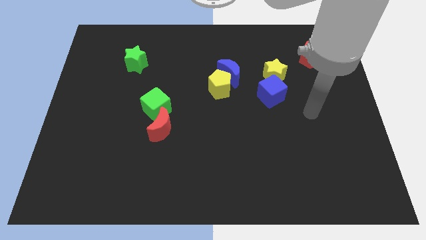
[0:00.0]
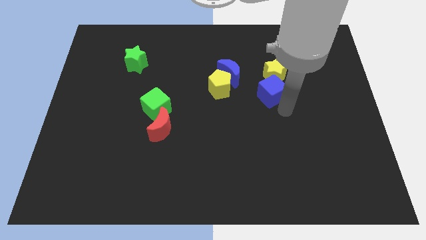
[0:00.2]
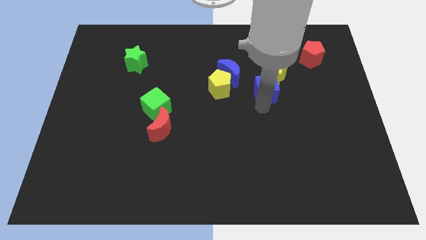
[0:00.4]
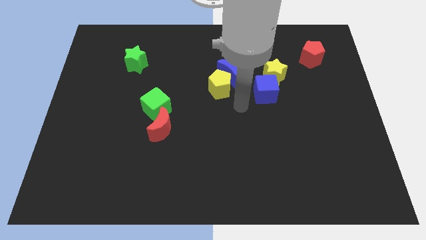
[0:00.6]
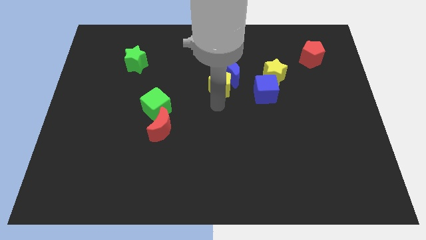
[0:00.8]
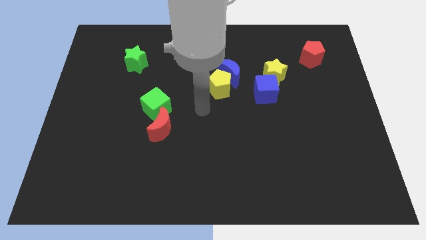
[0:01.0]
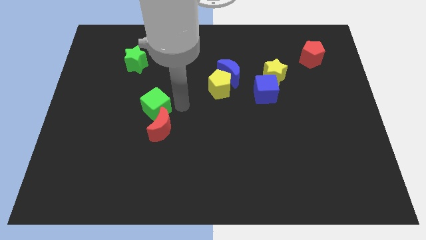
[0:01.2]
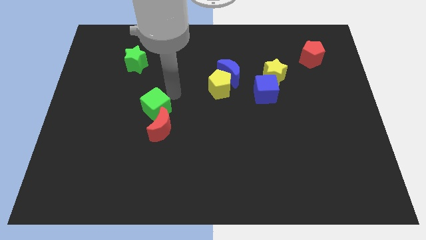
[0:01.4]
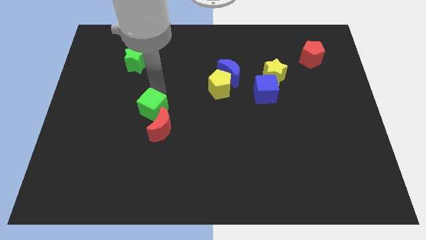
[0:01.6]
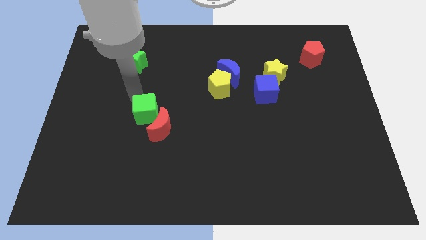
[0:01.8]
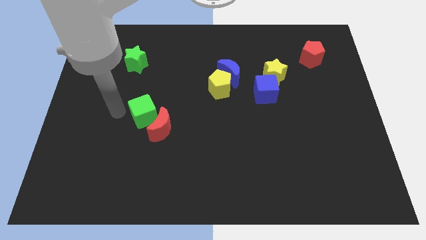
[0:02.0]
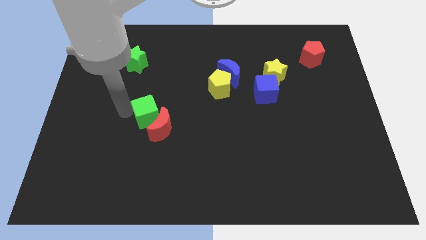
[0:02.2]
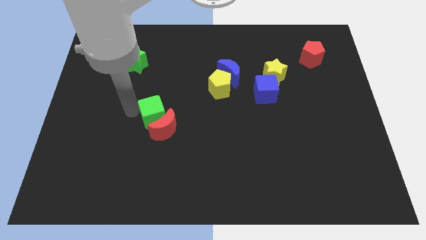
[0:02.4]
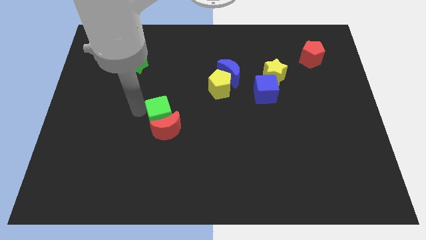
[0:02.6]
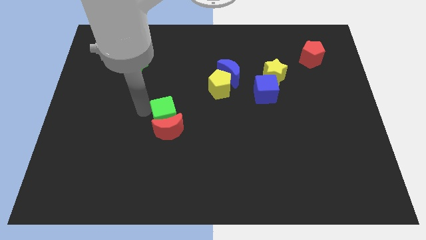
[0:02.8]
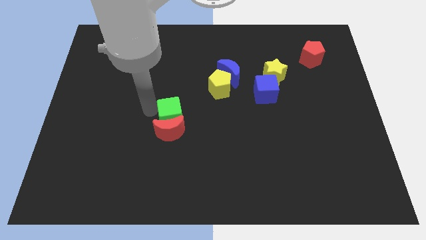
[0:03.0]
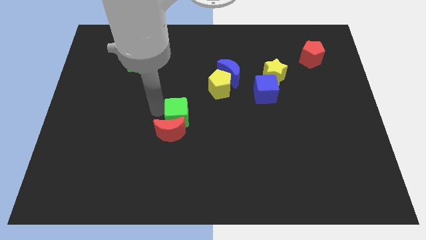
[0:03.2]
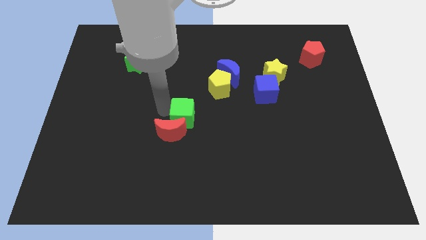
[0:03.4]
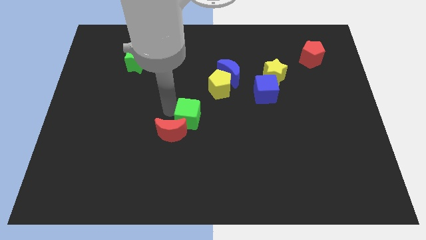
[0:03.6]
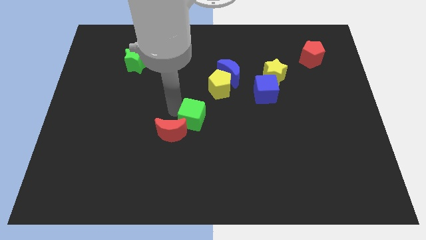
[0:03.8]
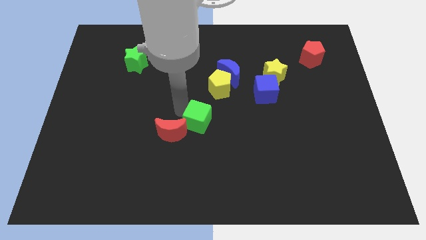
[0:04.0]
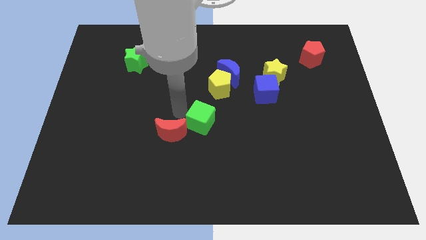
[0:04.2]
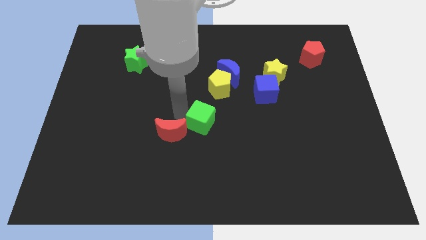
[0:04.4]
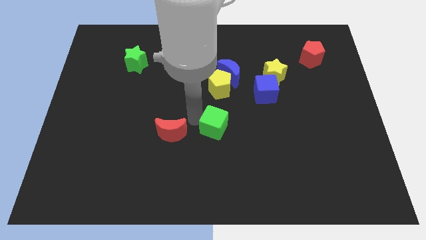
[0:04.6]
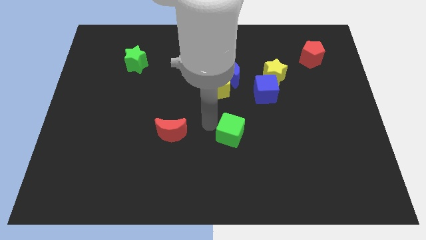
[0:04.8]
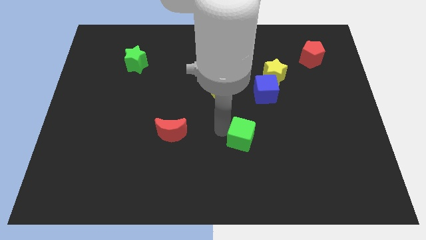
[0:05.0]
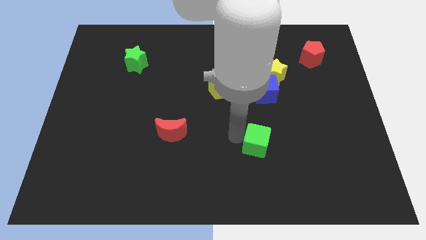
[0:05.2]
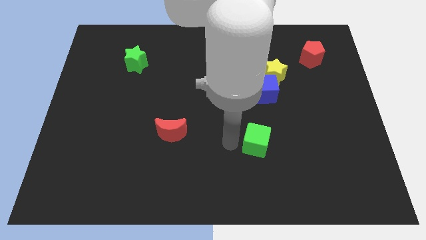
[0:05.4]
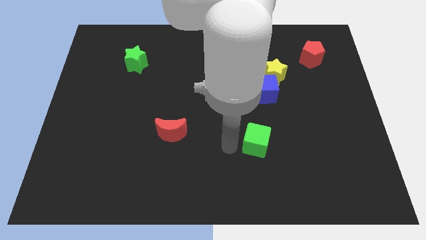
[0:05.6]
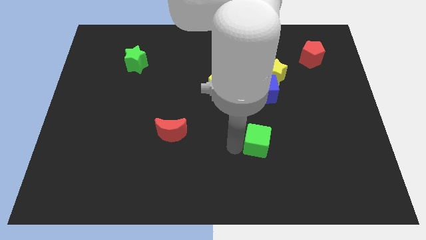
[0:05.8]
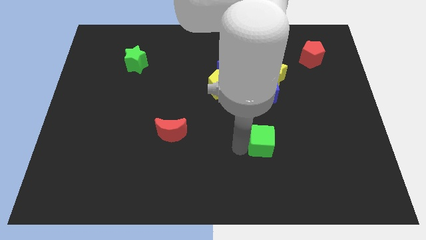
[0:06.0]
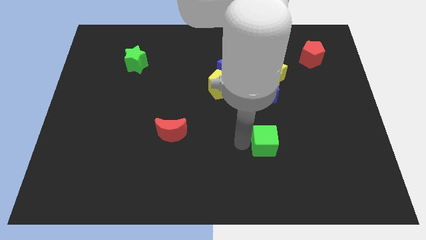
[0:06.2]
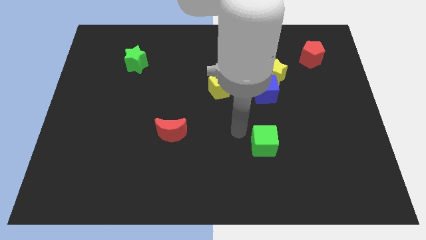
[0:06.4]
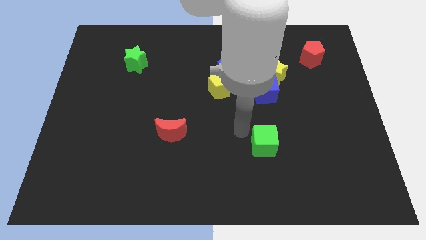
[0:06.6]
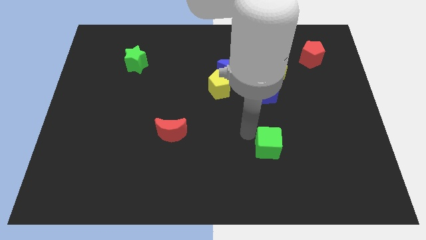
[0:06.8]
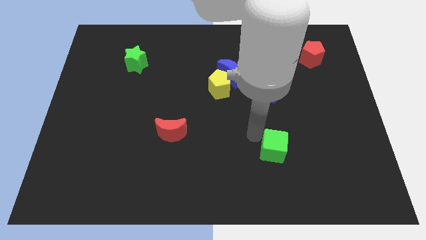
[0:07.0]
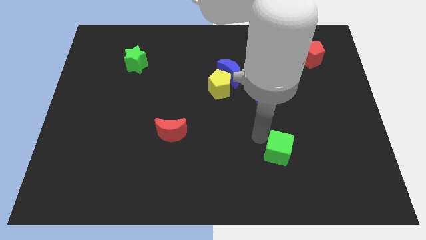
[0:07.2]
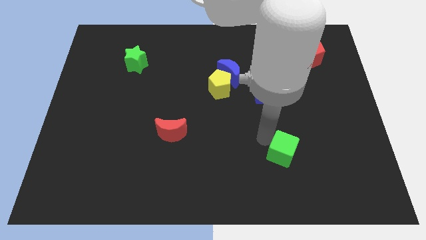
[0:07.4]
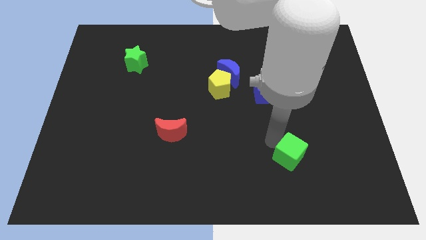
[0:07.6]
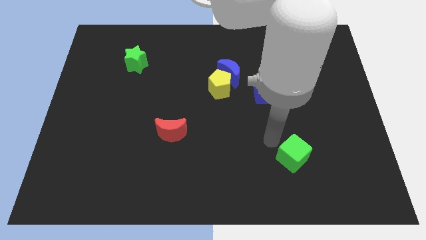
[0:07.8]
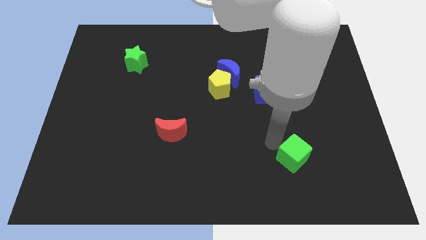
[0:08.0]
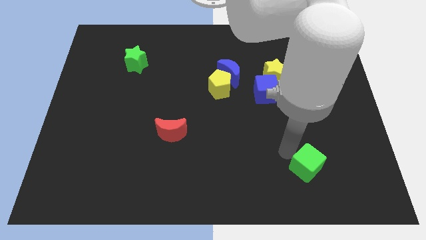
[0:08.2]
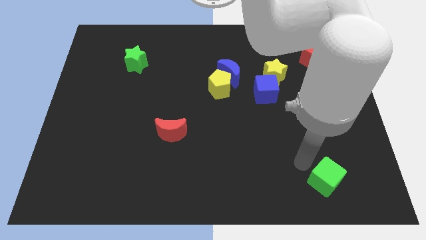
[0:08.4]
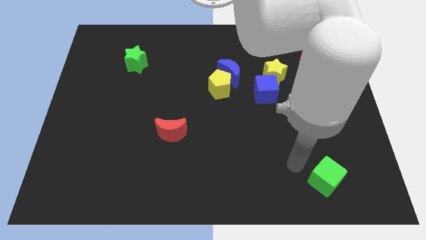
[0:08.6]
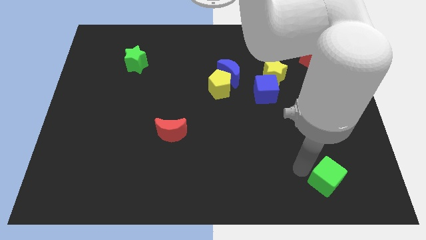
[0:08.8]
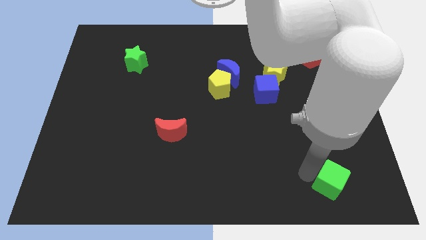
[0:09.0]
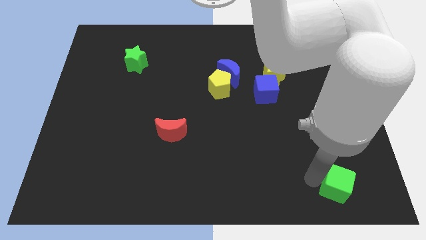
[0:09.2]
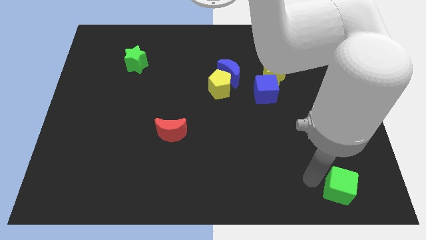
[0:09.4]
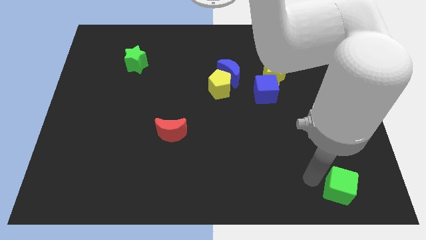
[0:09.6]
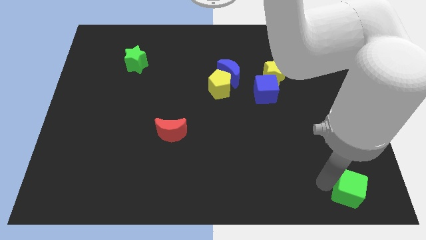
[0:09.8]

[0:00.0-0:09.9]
slide the green cube to the bottom right of the board

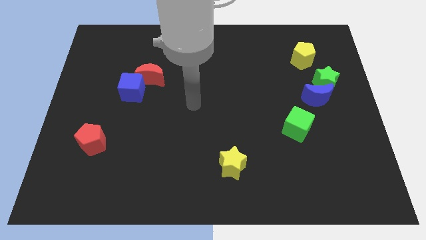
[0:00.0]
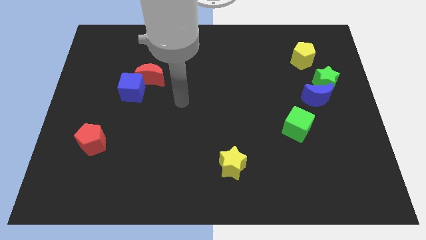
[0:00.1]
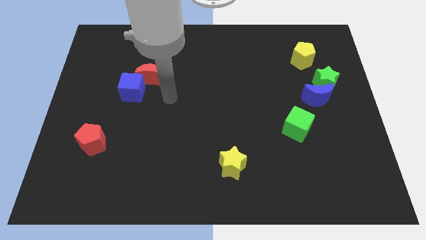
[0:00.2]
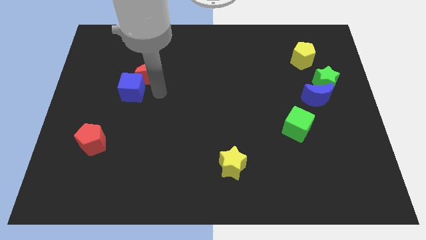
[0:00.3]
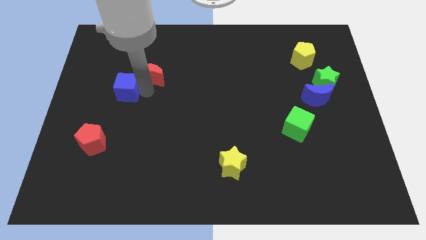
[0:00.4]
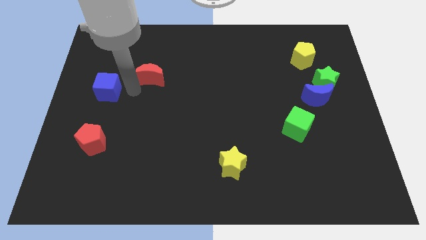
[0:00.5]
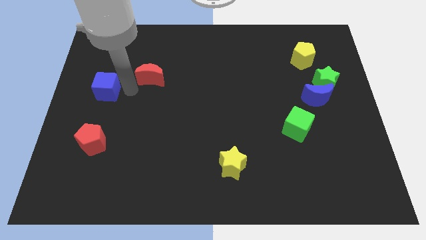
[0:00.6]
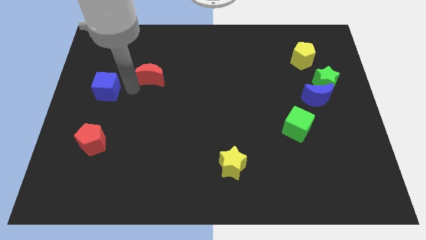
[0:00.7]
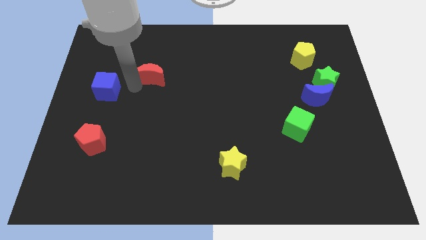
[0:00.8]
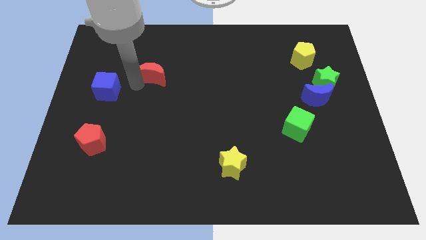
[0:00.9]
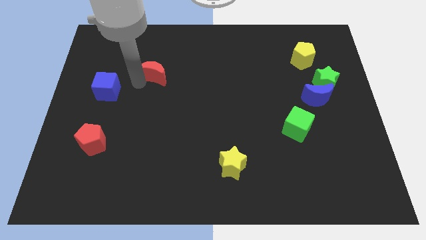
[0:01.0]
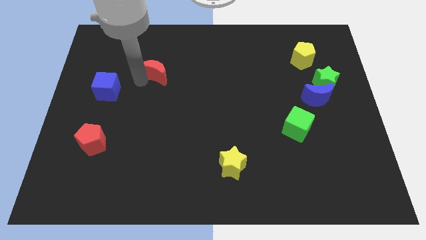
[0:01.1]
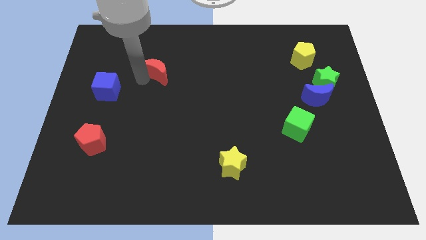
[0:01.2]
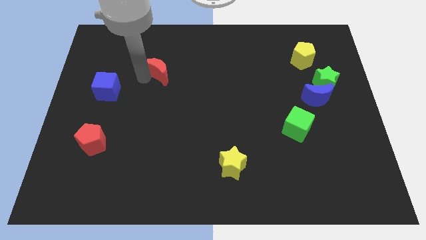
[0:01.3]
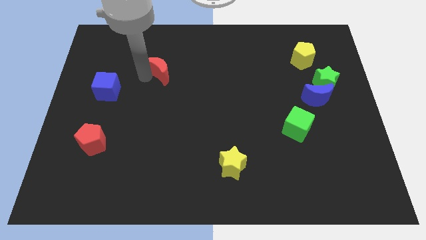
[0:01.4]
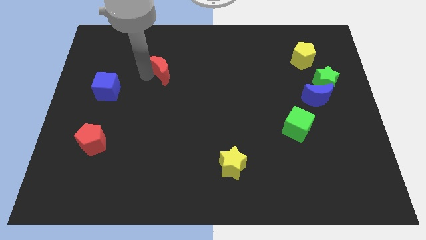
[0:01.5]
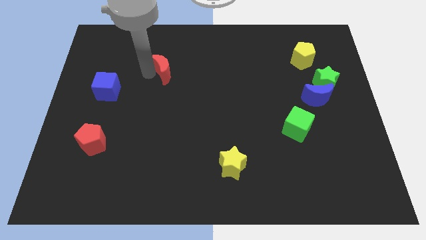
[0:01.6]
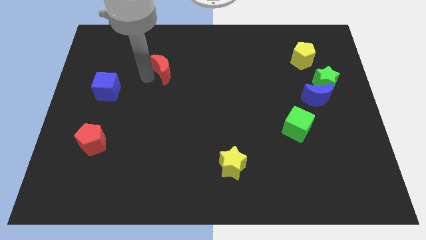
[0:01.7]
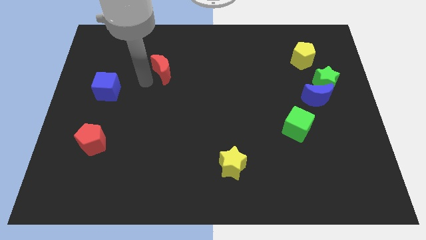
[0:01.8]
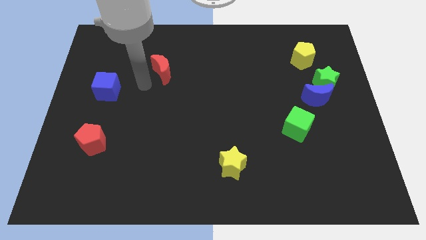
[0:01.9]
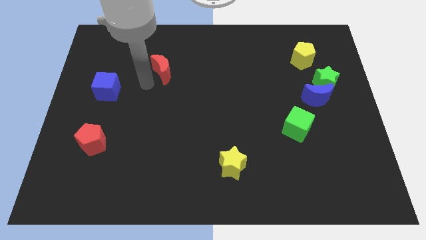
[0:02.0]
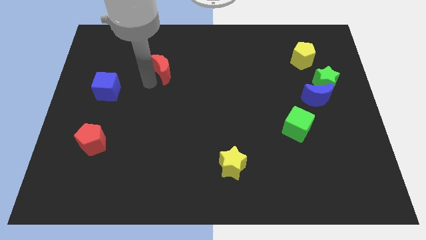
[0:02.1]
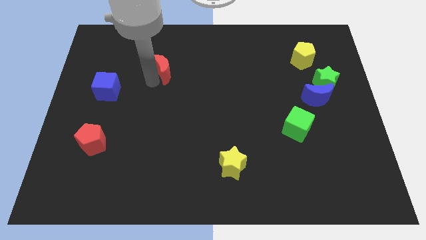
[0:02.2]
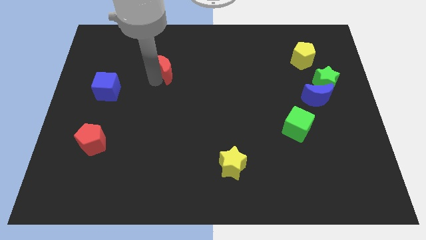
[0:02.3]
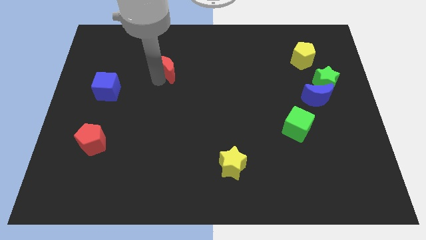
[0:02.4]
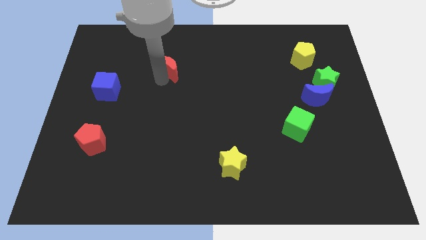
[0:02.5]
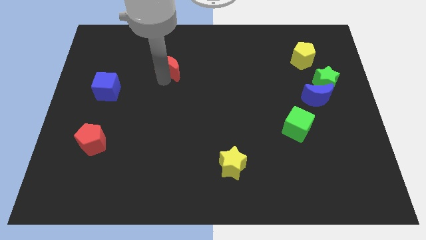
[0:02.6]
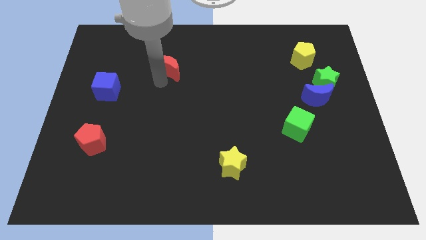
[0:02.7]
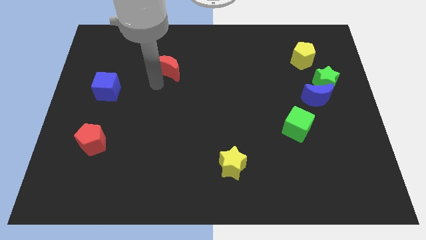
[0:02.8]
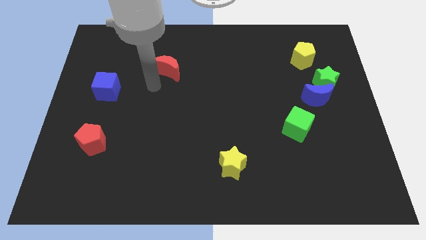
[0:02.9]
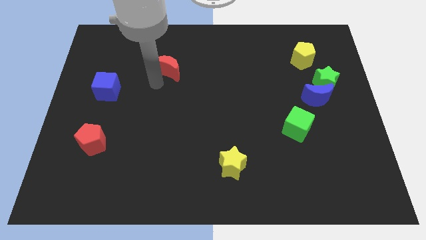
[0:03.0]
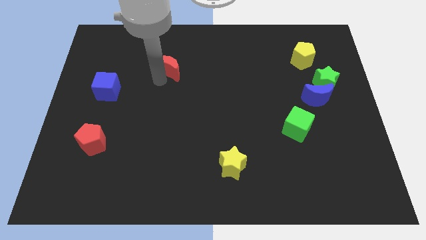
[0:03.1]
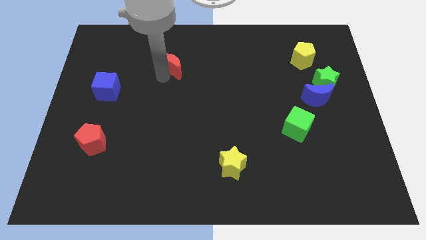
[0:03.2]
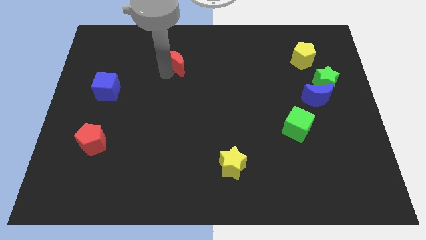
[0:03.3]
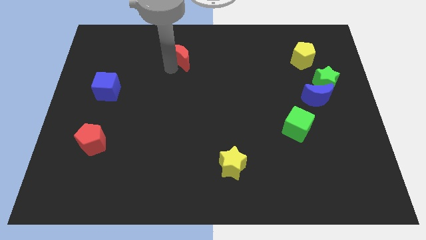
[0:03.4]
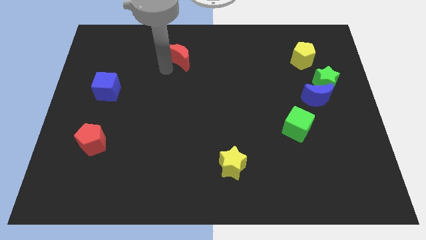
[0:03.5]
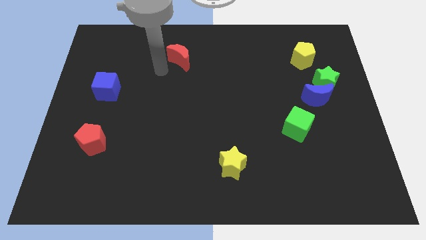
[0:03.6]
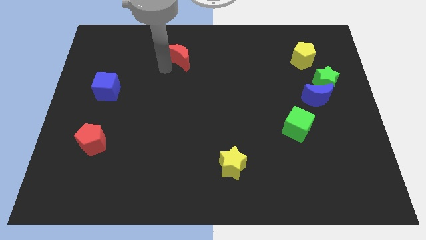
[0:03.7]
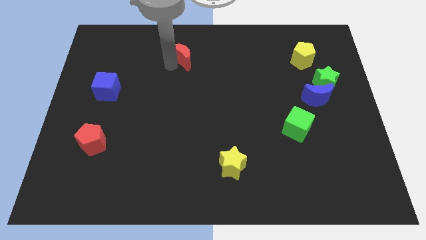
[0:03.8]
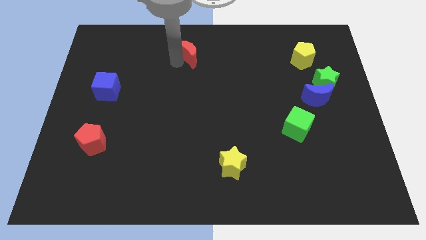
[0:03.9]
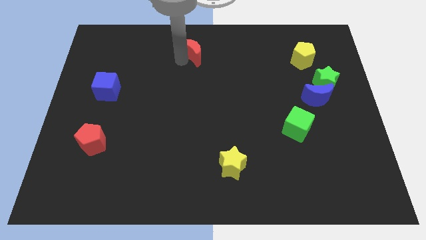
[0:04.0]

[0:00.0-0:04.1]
move the red moon to the towards your base
